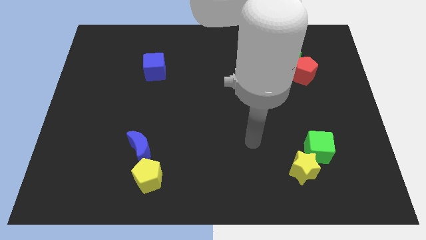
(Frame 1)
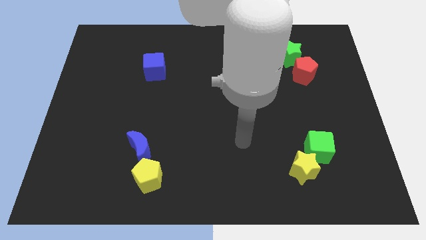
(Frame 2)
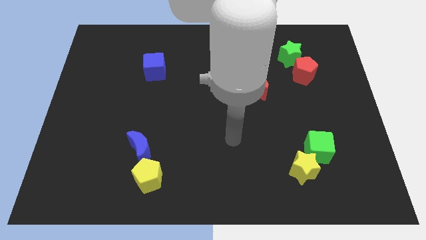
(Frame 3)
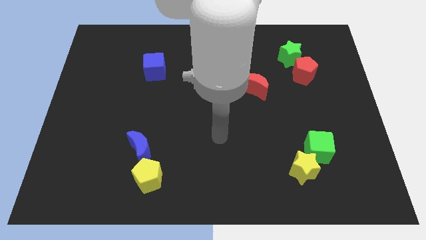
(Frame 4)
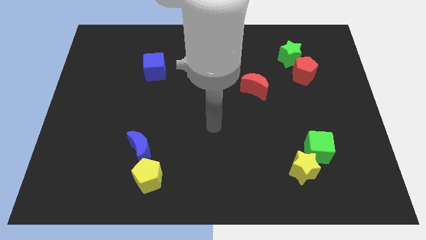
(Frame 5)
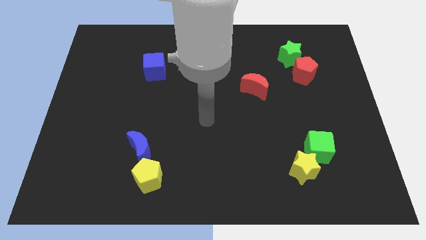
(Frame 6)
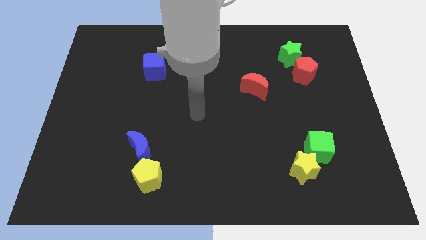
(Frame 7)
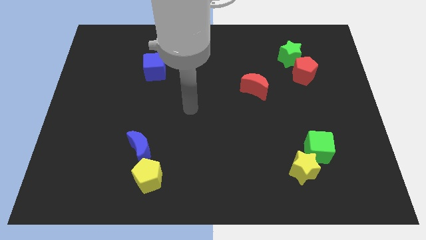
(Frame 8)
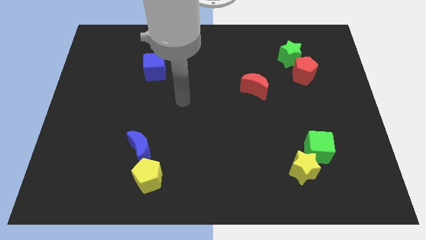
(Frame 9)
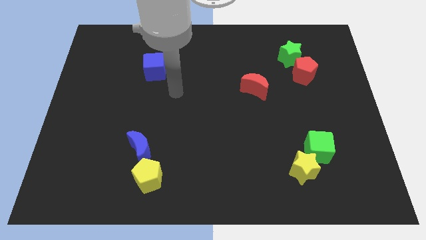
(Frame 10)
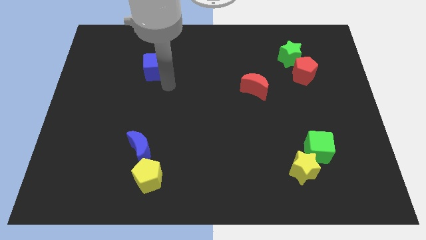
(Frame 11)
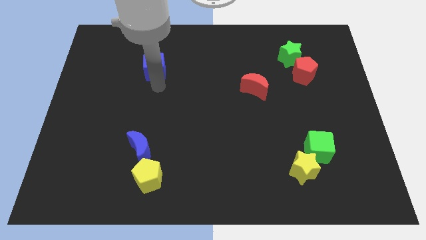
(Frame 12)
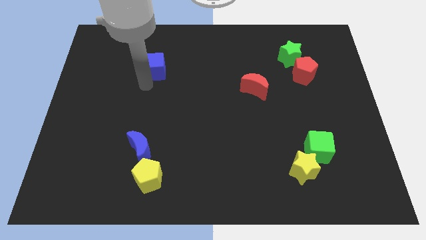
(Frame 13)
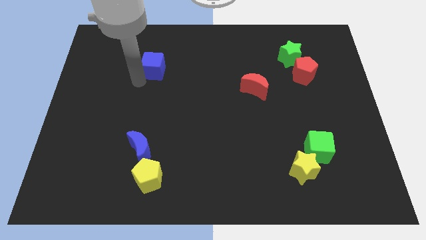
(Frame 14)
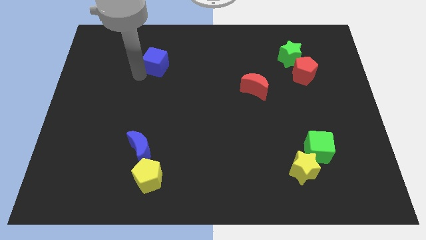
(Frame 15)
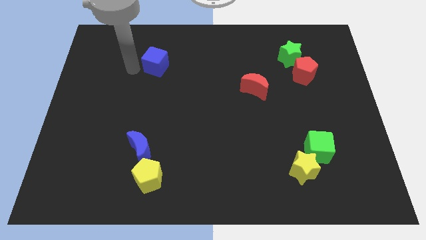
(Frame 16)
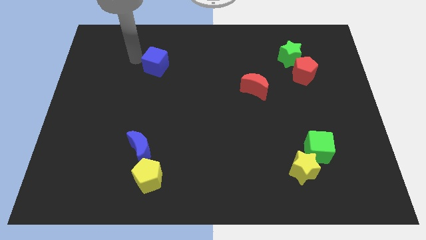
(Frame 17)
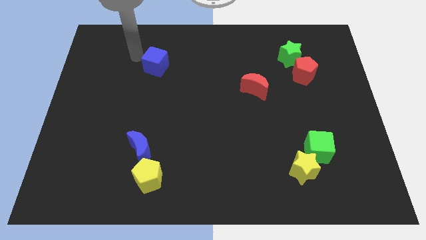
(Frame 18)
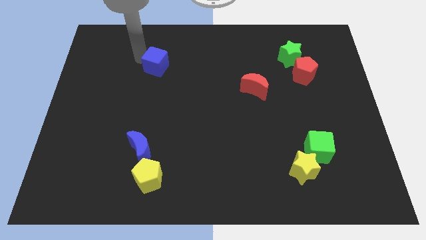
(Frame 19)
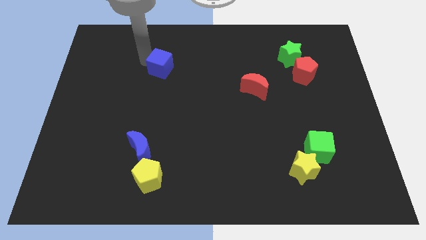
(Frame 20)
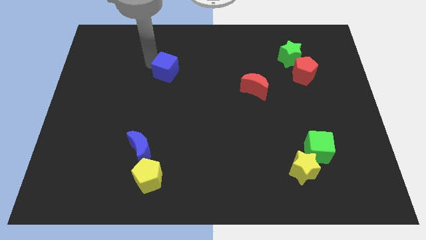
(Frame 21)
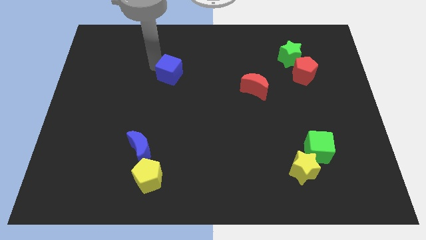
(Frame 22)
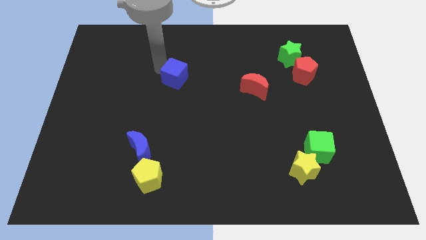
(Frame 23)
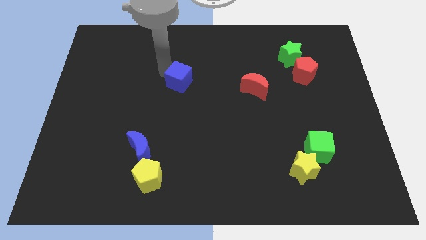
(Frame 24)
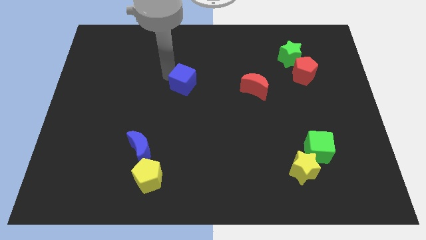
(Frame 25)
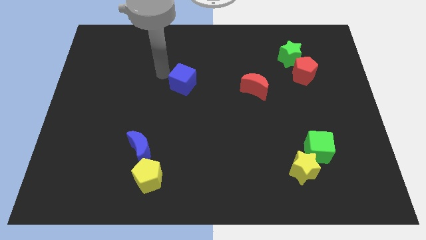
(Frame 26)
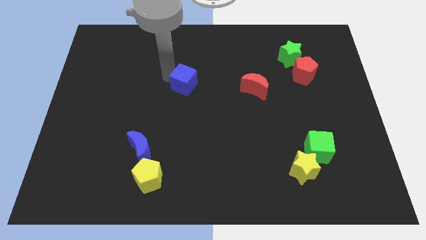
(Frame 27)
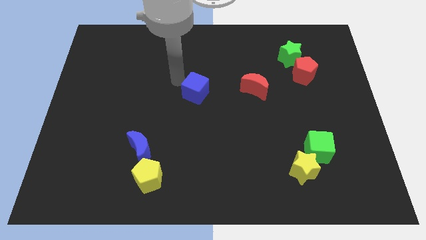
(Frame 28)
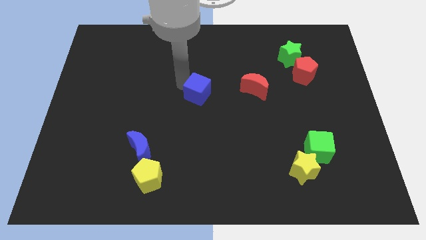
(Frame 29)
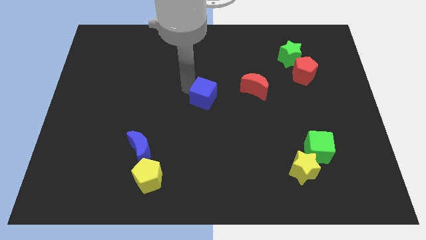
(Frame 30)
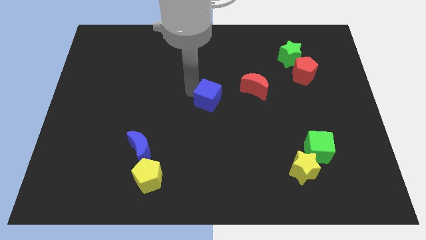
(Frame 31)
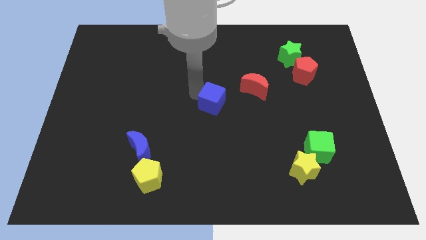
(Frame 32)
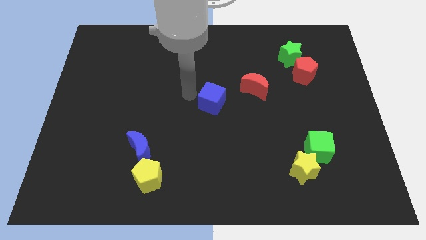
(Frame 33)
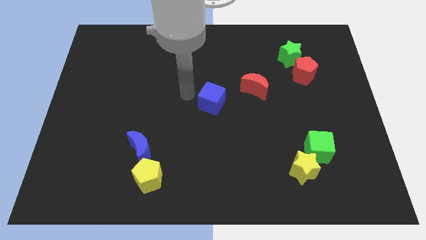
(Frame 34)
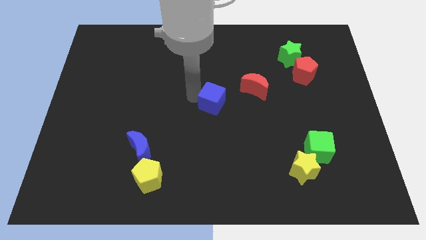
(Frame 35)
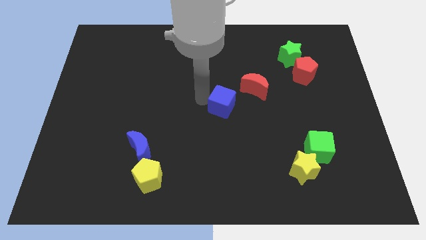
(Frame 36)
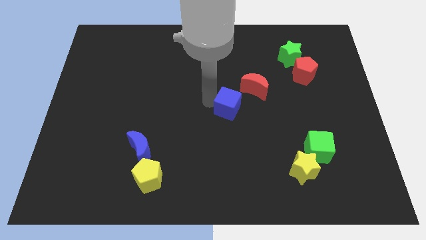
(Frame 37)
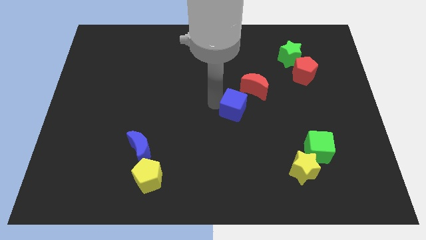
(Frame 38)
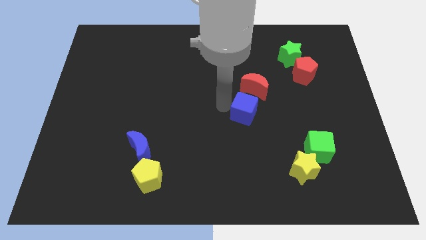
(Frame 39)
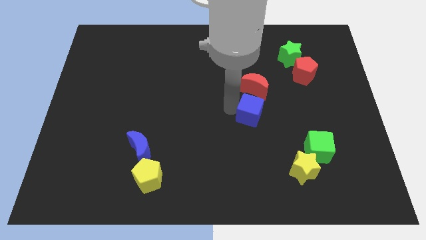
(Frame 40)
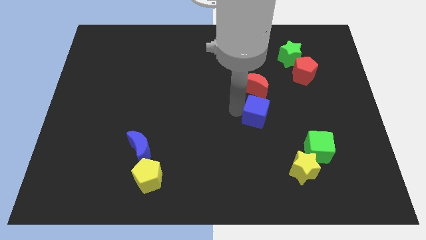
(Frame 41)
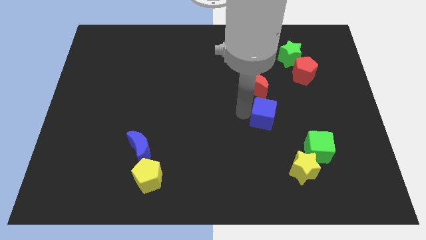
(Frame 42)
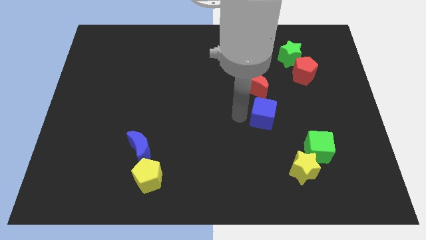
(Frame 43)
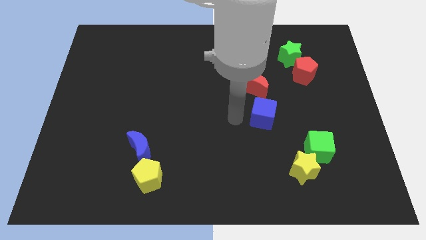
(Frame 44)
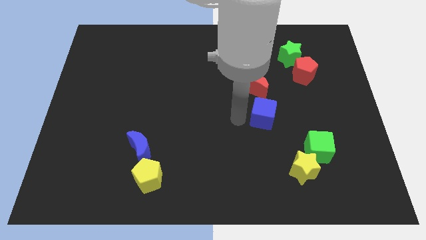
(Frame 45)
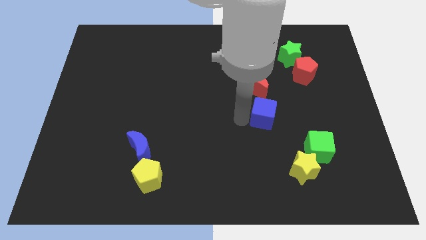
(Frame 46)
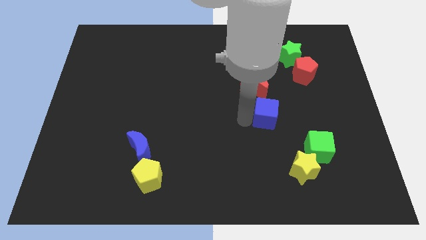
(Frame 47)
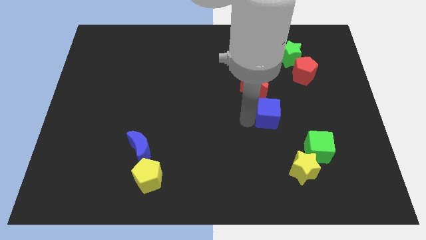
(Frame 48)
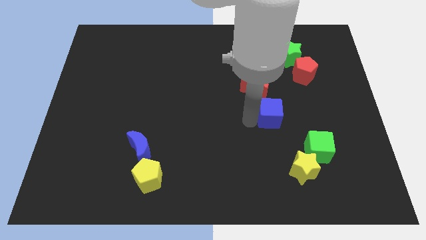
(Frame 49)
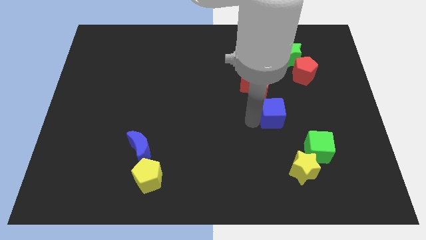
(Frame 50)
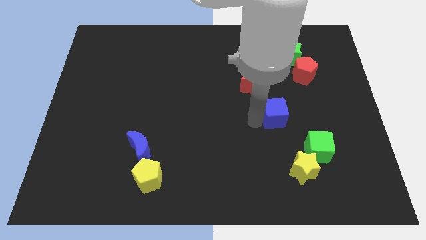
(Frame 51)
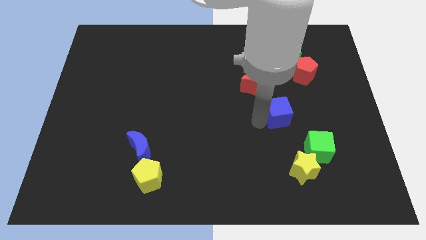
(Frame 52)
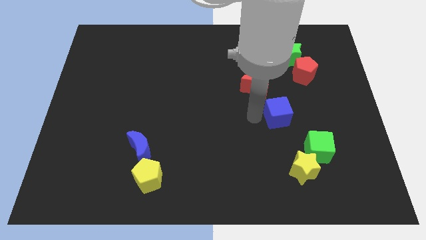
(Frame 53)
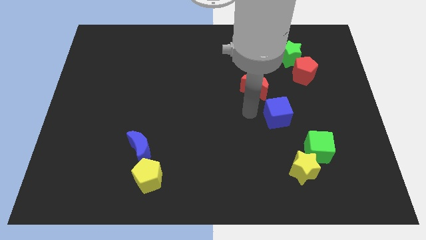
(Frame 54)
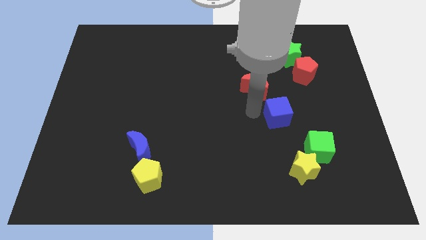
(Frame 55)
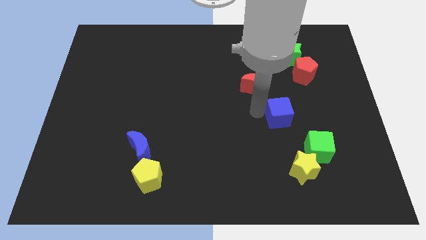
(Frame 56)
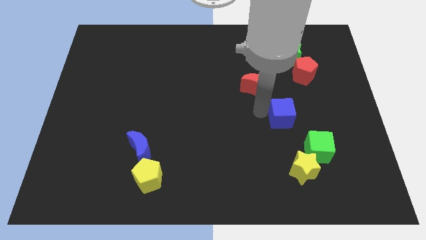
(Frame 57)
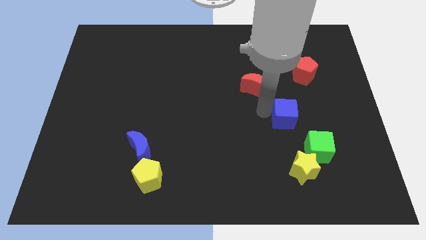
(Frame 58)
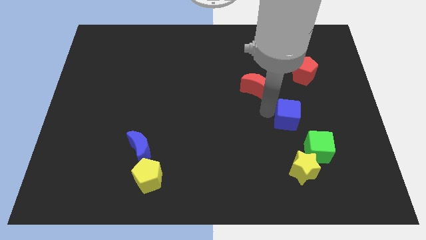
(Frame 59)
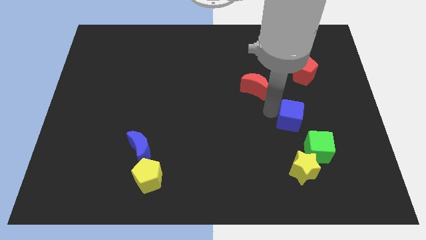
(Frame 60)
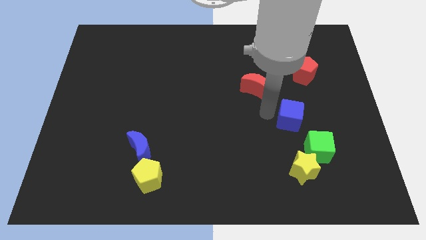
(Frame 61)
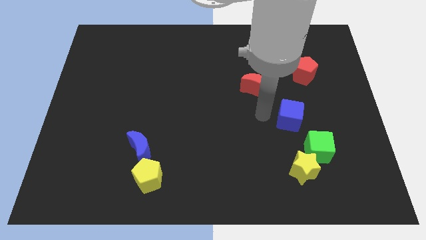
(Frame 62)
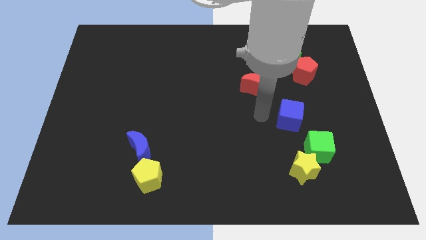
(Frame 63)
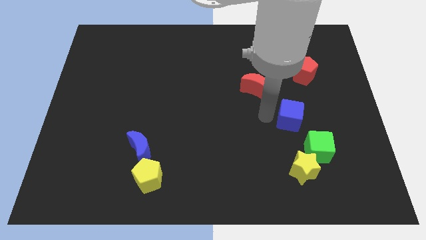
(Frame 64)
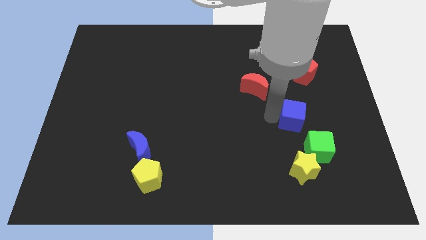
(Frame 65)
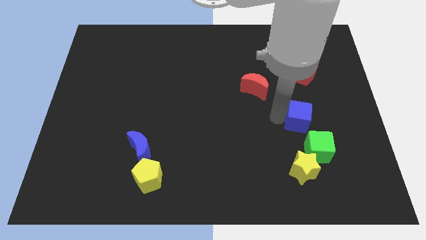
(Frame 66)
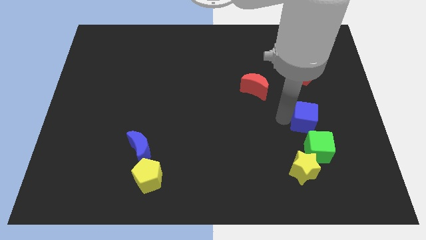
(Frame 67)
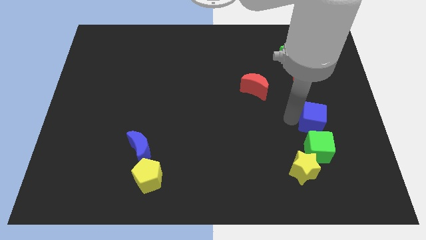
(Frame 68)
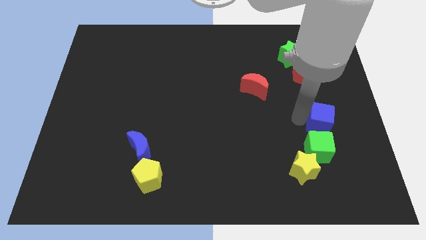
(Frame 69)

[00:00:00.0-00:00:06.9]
push the blue cube diagonally up and to the right of the green cube

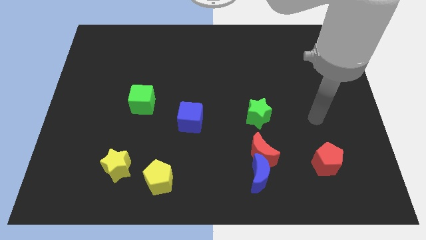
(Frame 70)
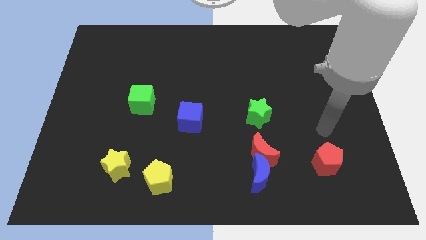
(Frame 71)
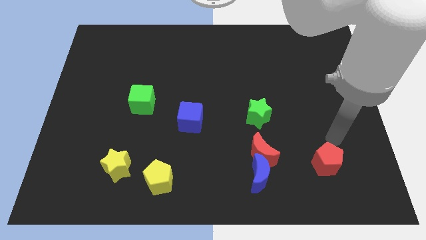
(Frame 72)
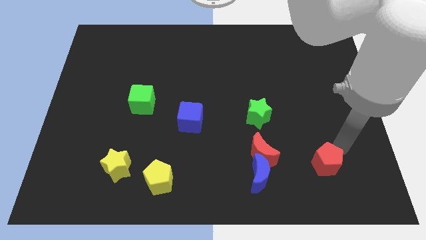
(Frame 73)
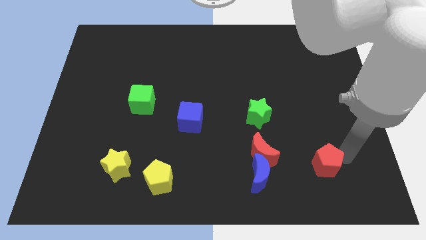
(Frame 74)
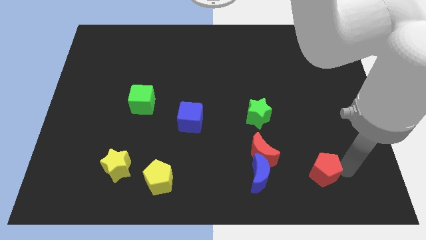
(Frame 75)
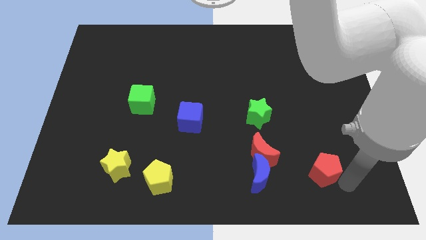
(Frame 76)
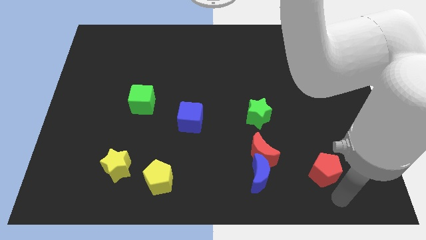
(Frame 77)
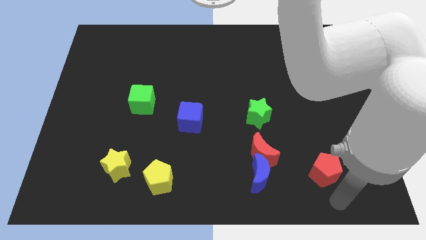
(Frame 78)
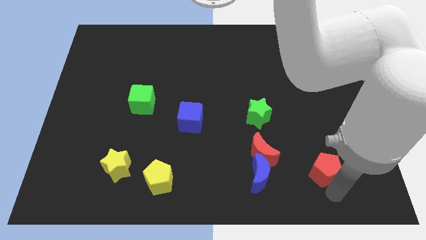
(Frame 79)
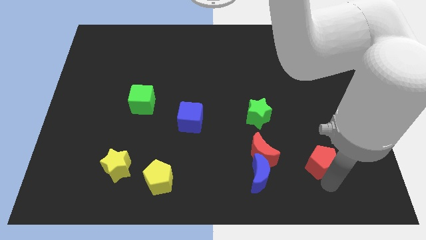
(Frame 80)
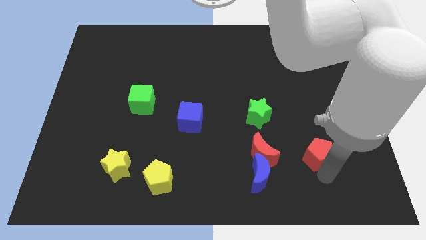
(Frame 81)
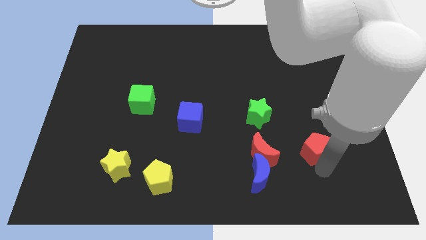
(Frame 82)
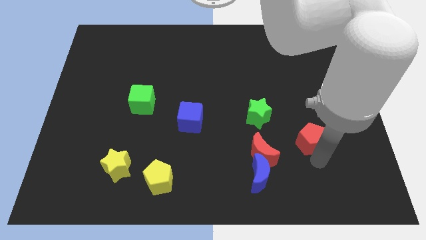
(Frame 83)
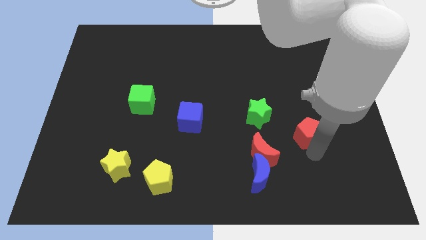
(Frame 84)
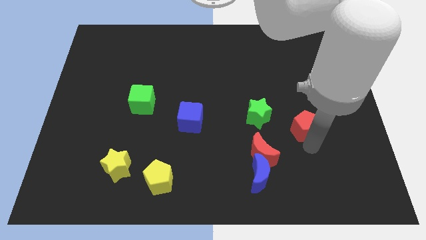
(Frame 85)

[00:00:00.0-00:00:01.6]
put the red pentagon to the right of the green star
